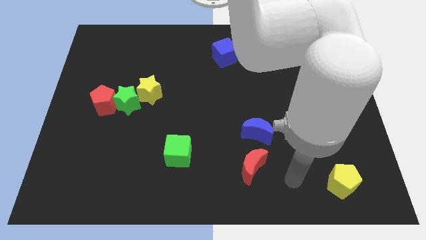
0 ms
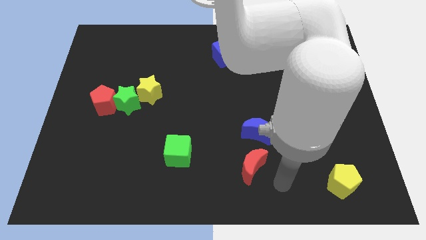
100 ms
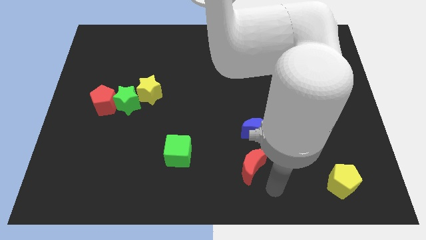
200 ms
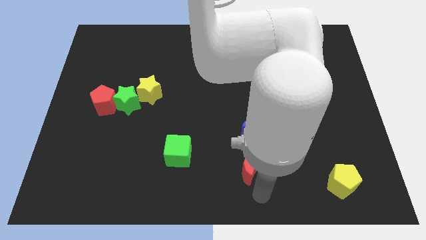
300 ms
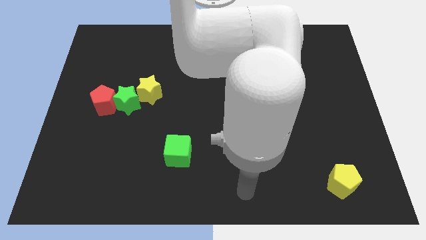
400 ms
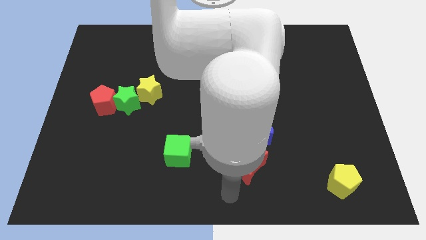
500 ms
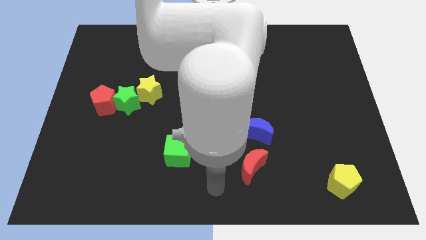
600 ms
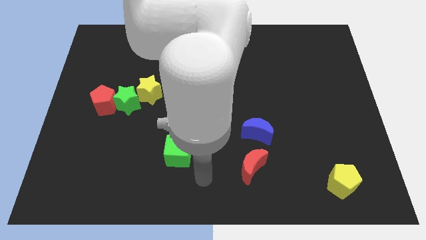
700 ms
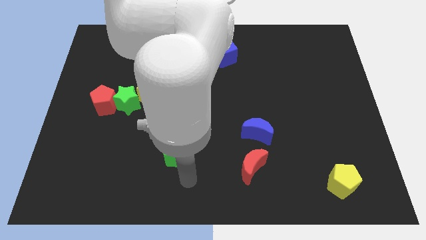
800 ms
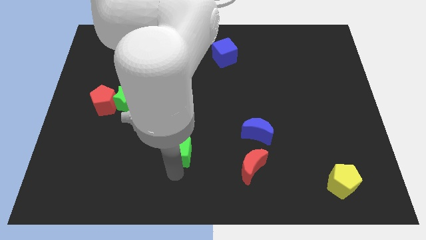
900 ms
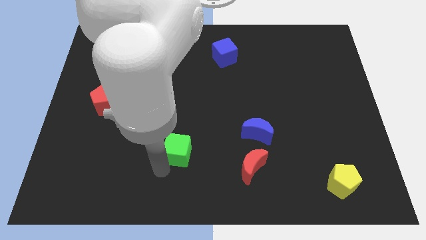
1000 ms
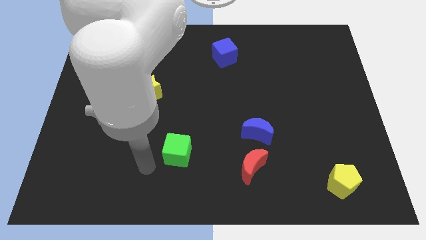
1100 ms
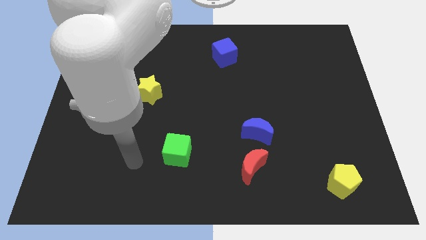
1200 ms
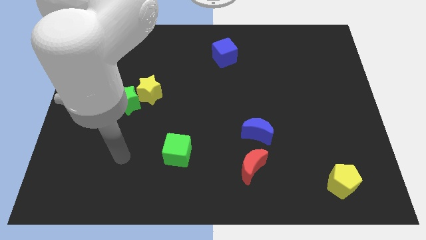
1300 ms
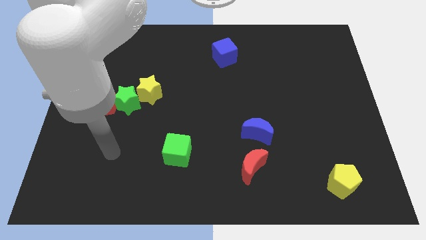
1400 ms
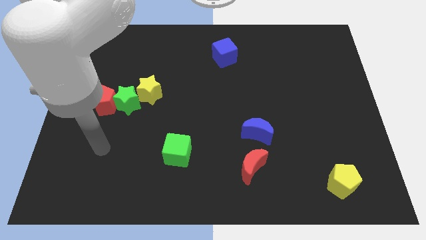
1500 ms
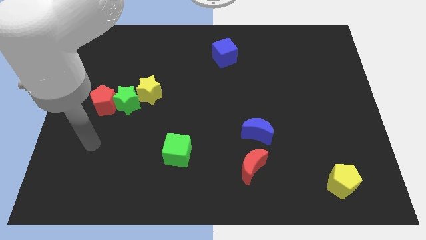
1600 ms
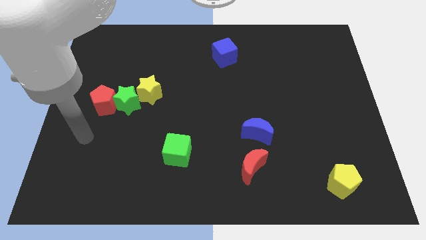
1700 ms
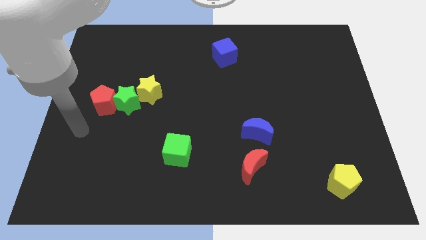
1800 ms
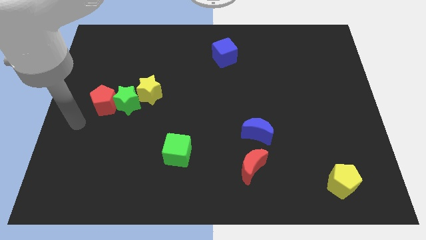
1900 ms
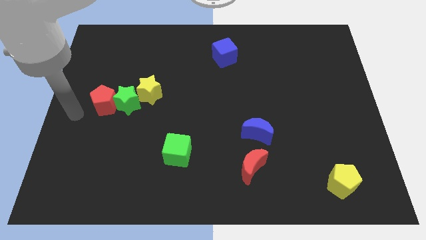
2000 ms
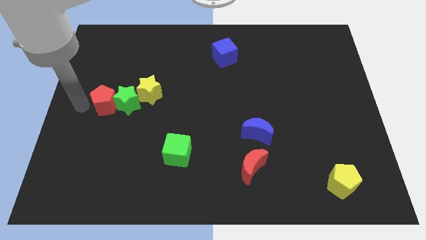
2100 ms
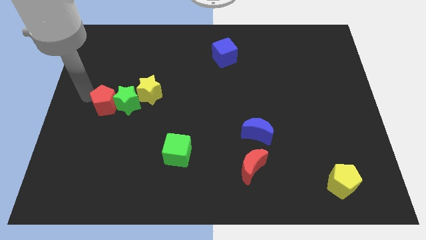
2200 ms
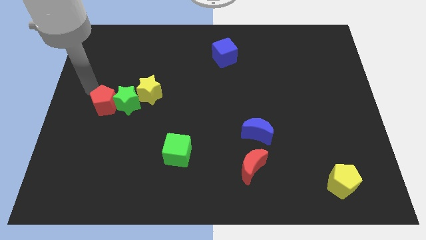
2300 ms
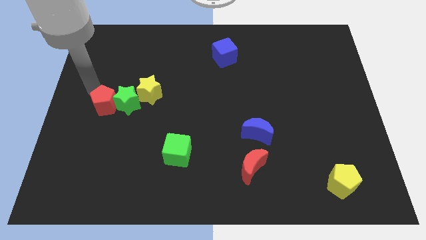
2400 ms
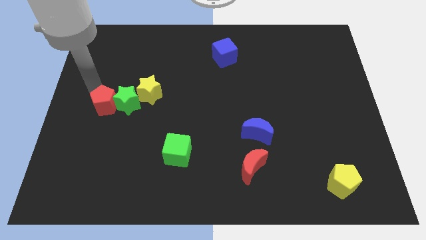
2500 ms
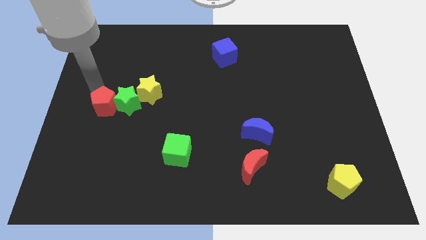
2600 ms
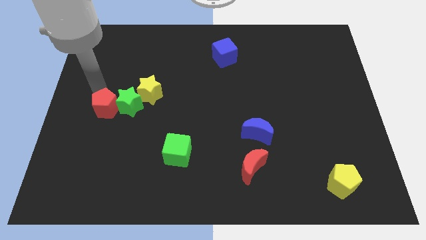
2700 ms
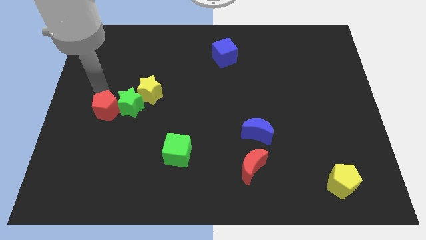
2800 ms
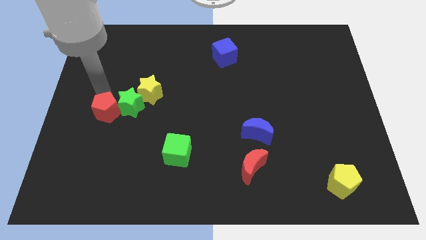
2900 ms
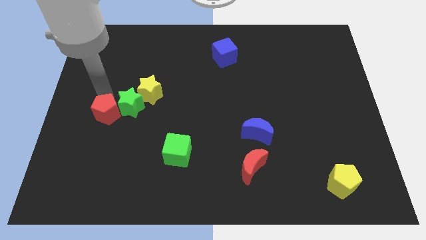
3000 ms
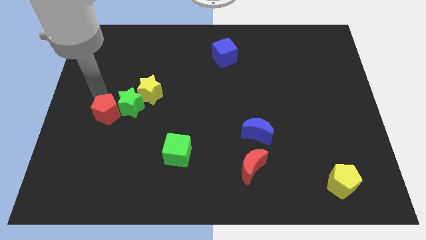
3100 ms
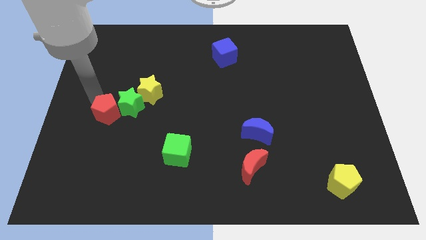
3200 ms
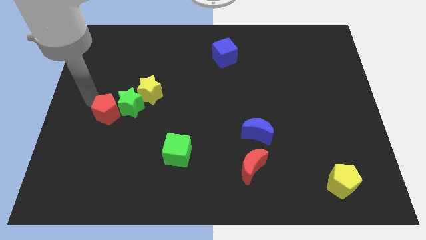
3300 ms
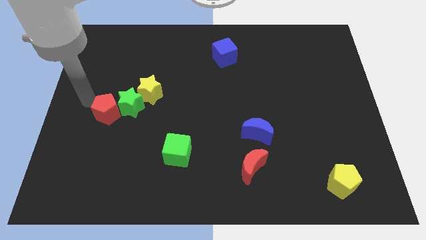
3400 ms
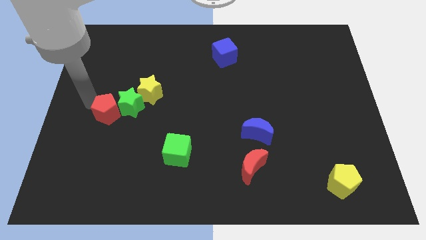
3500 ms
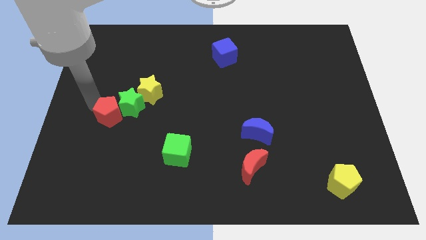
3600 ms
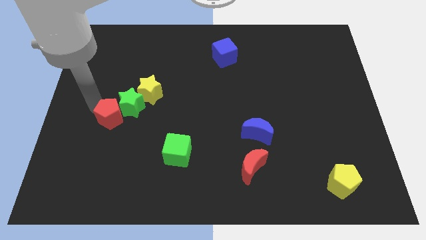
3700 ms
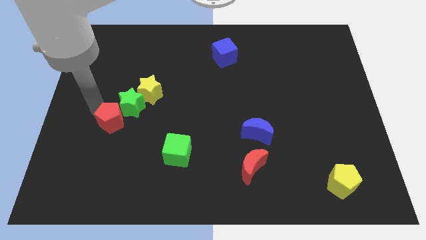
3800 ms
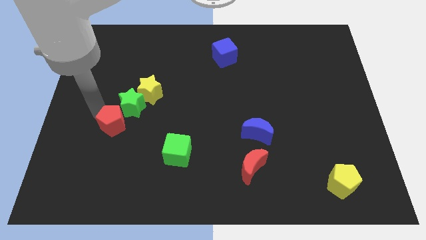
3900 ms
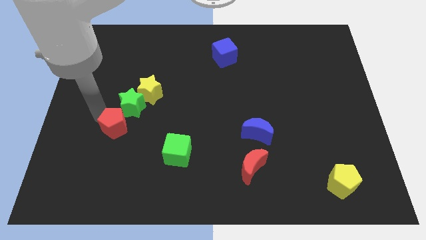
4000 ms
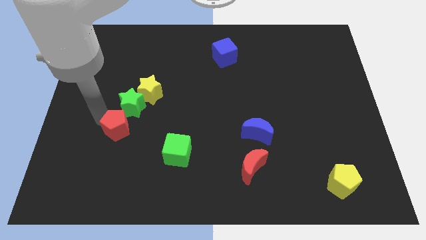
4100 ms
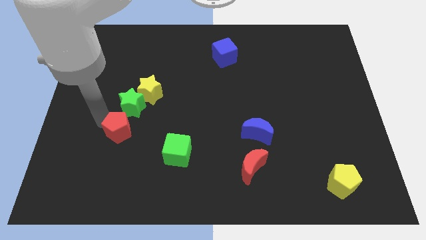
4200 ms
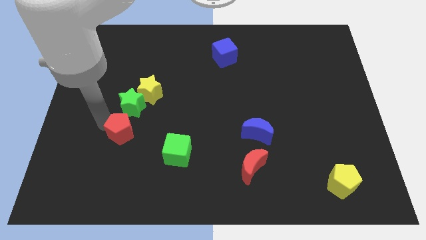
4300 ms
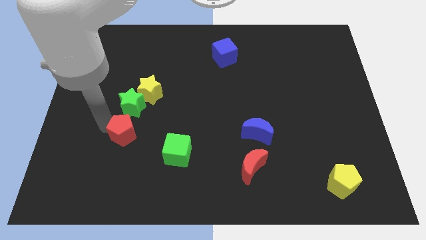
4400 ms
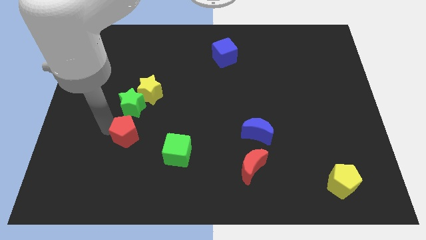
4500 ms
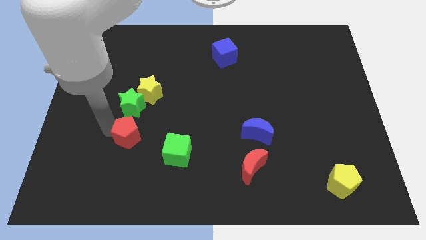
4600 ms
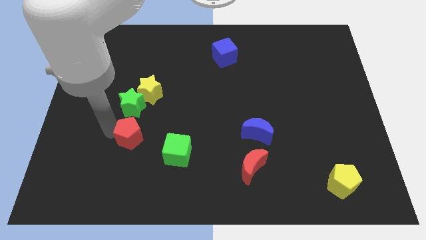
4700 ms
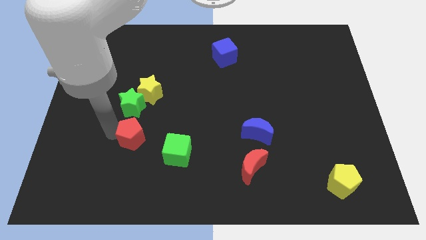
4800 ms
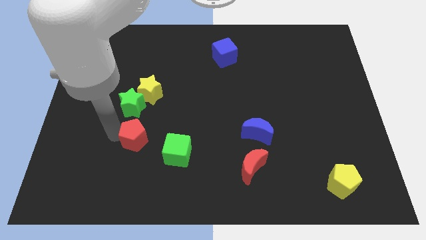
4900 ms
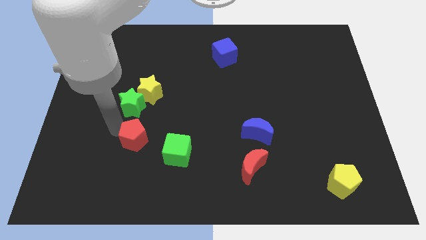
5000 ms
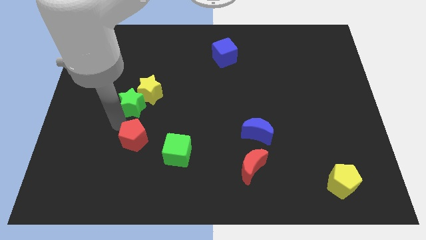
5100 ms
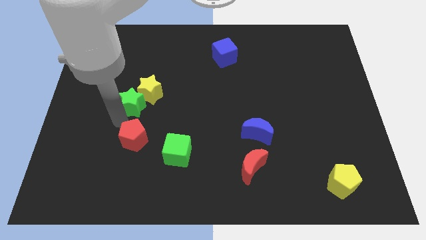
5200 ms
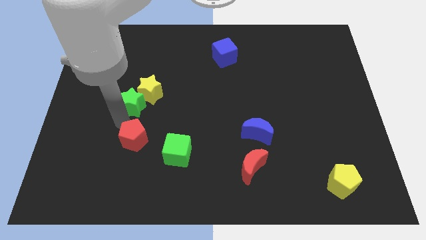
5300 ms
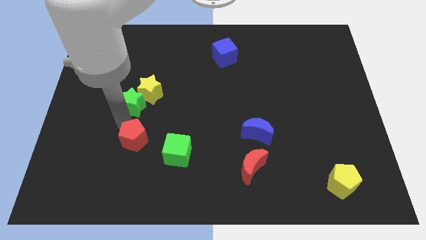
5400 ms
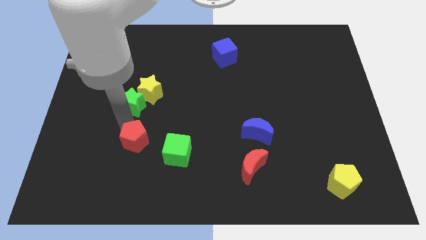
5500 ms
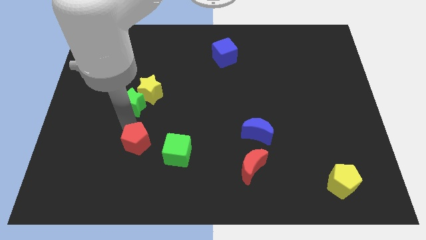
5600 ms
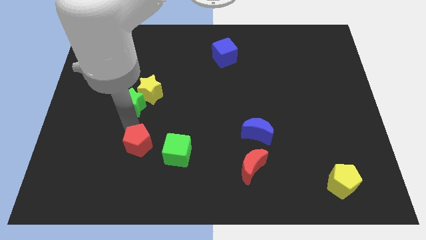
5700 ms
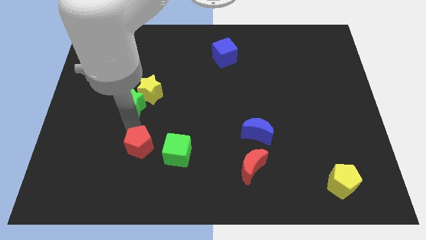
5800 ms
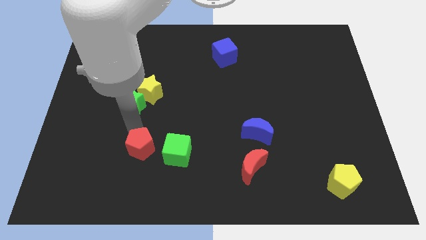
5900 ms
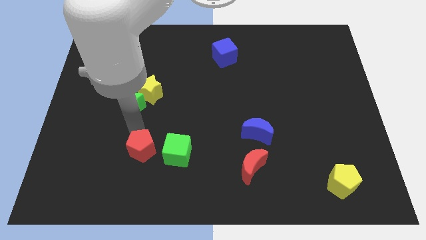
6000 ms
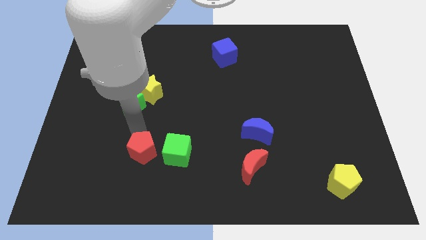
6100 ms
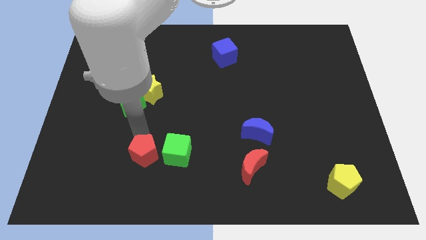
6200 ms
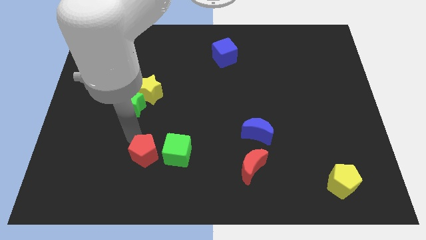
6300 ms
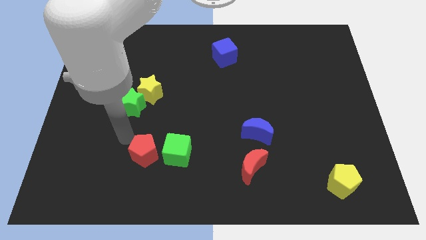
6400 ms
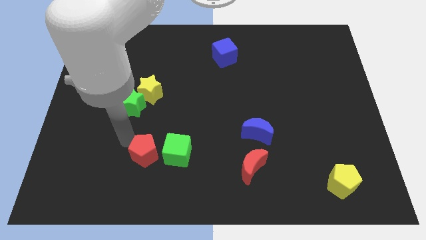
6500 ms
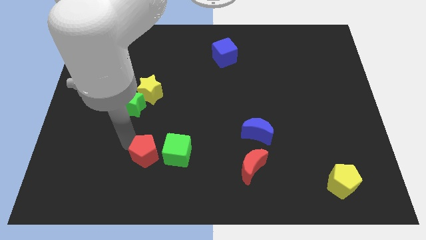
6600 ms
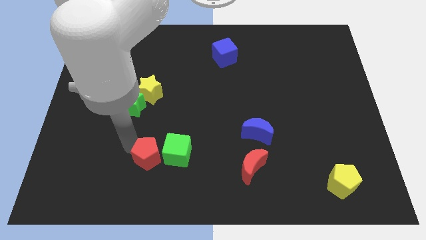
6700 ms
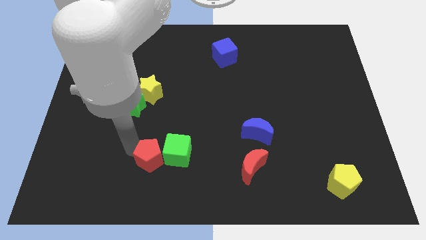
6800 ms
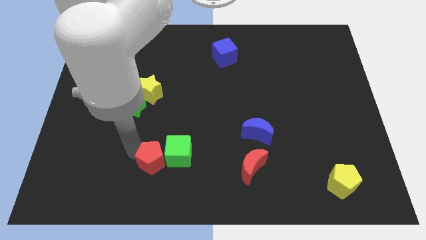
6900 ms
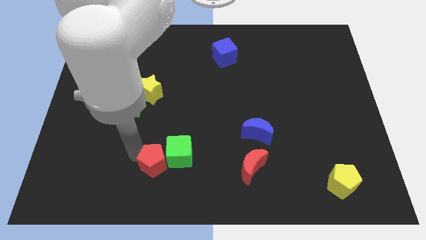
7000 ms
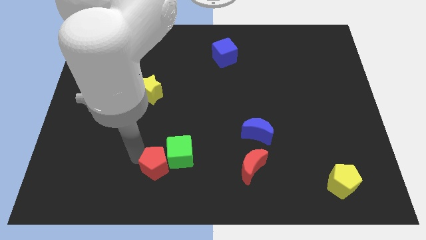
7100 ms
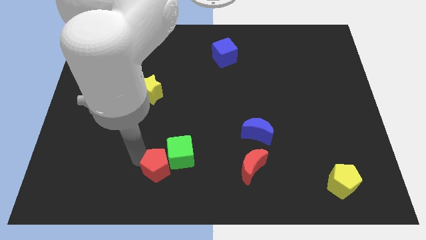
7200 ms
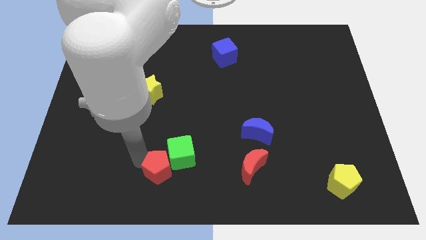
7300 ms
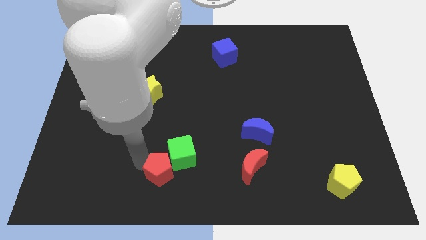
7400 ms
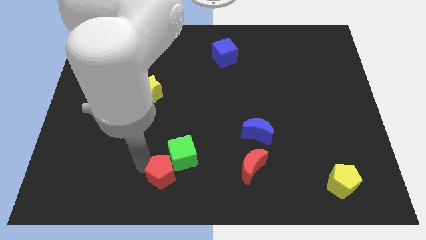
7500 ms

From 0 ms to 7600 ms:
slide the red pentagon to the bottom side

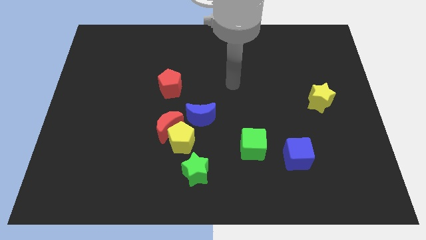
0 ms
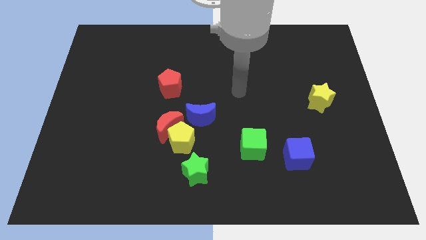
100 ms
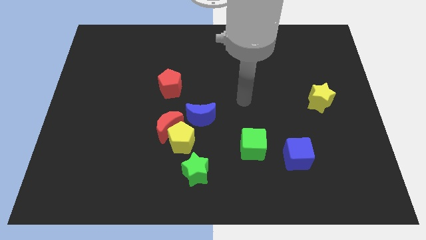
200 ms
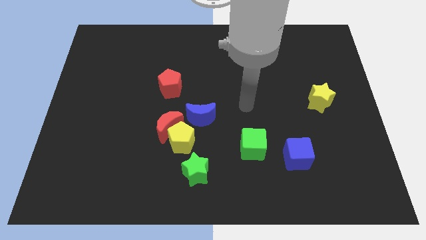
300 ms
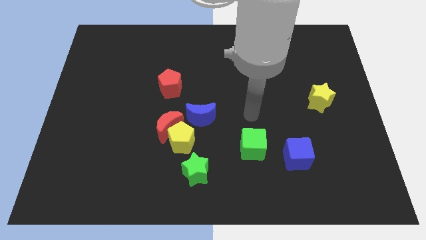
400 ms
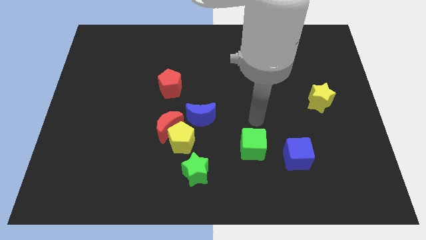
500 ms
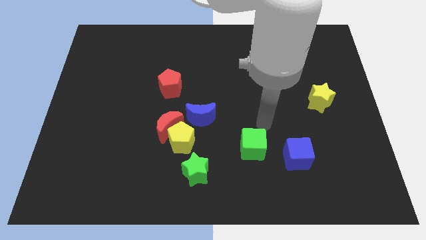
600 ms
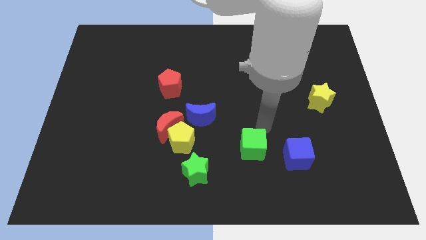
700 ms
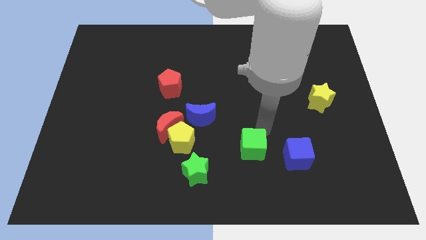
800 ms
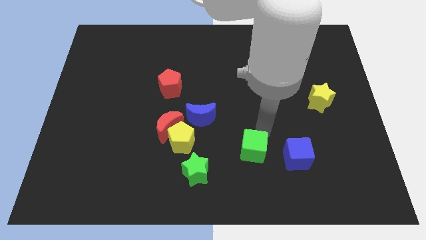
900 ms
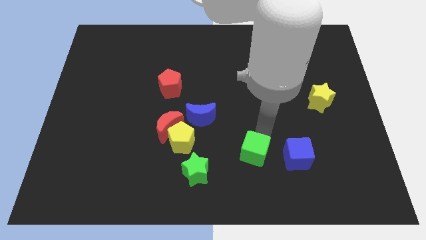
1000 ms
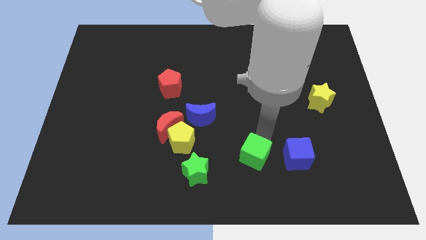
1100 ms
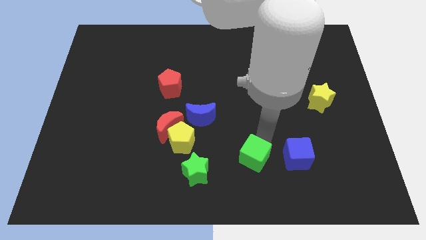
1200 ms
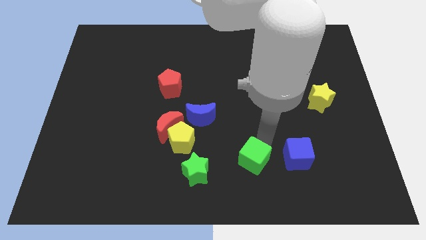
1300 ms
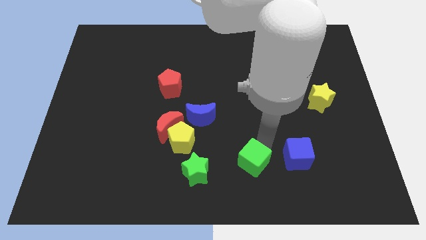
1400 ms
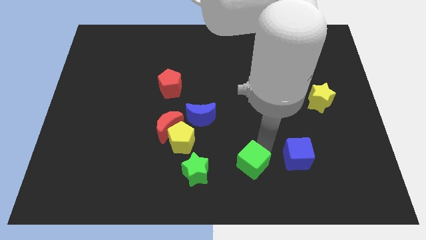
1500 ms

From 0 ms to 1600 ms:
slide the green cube to the bottom side
